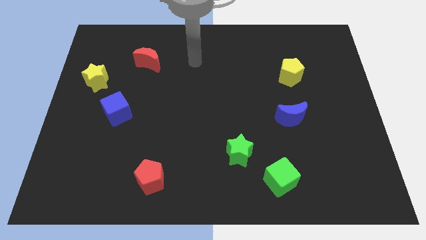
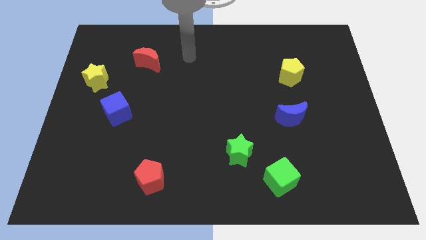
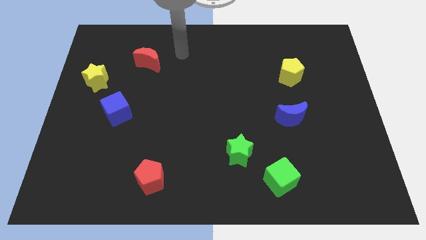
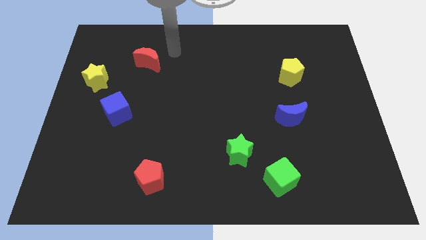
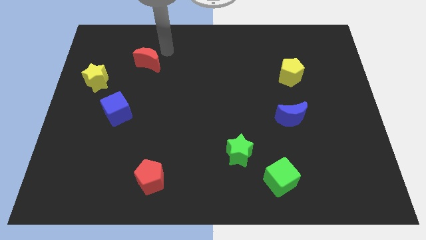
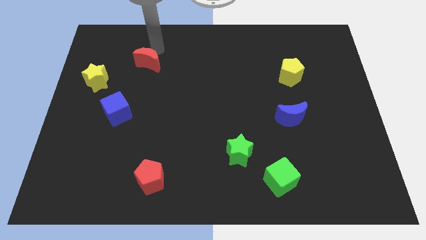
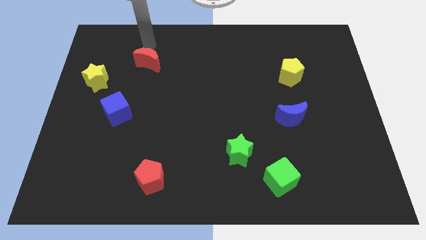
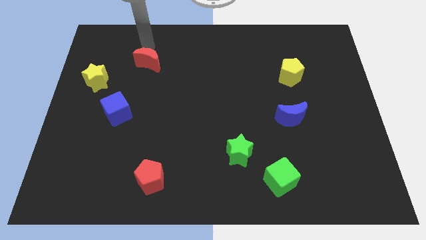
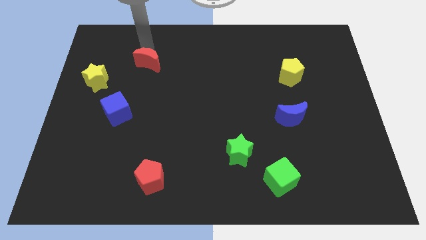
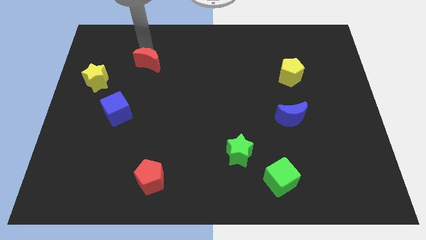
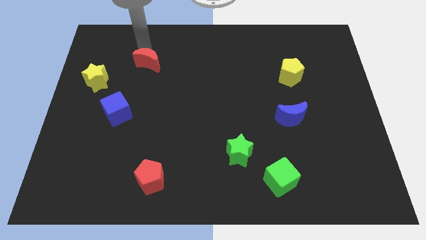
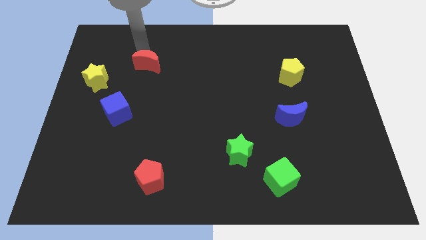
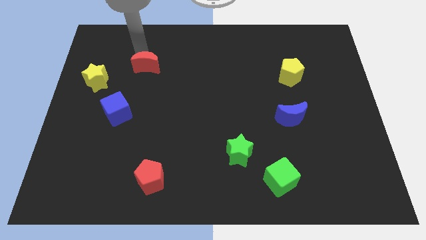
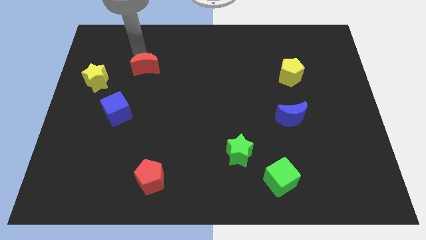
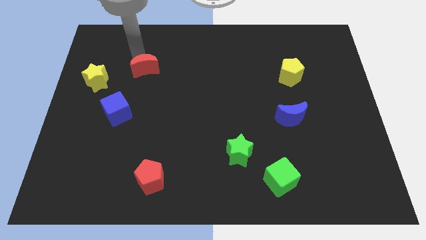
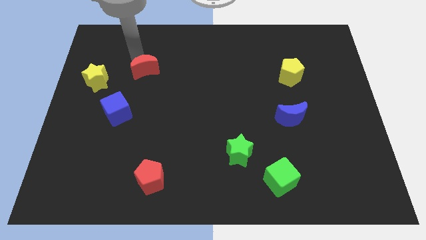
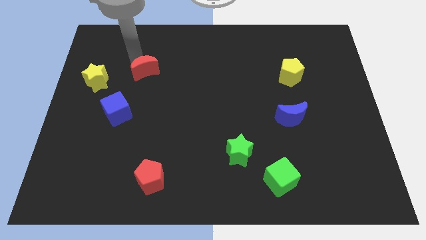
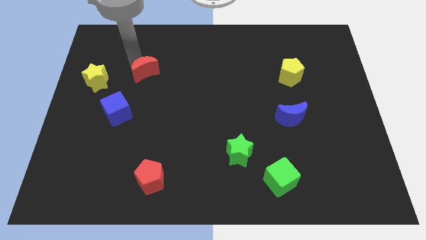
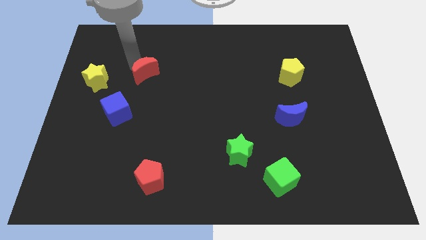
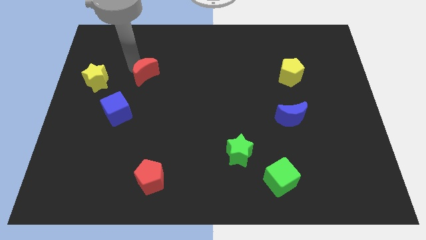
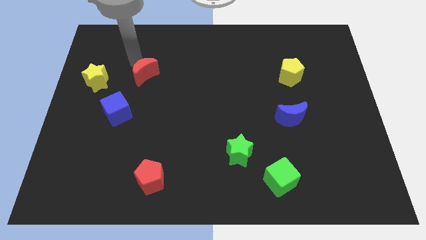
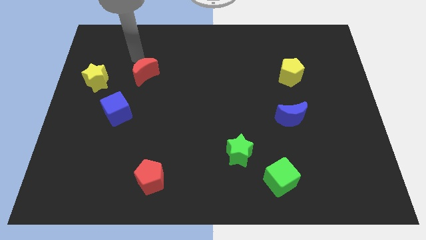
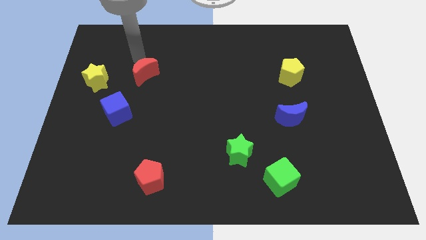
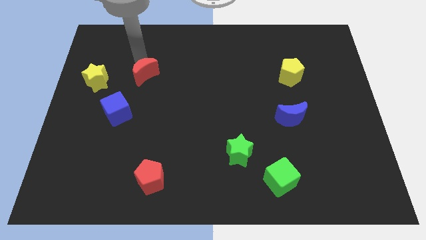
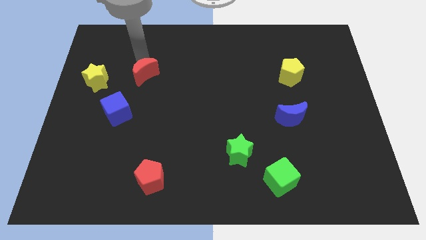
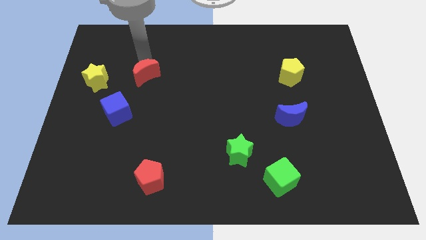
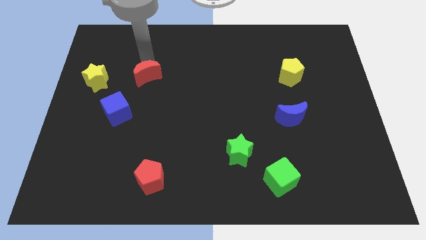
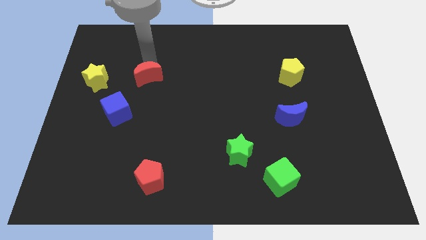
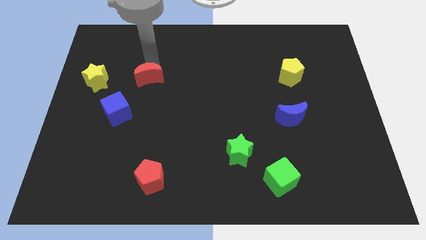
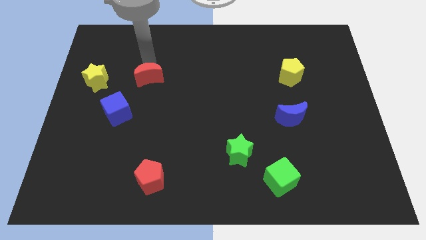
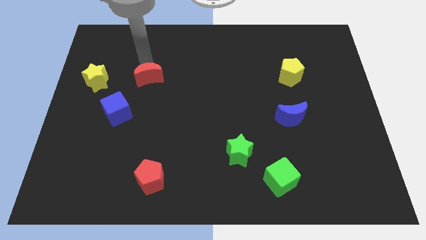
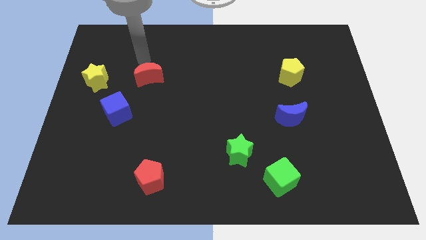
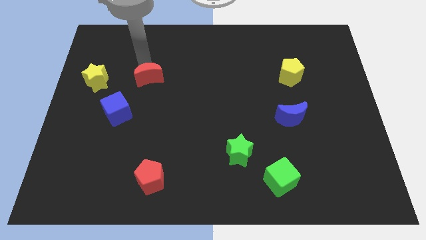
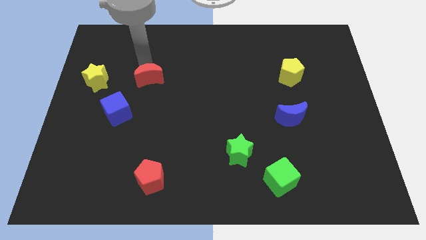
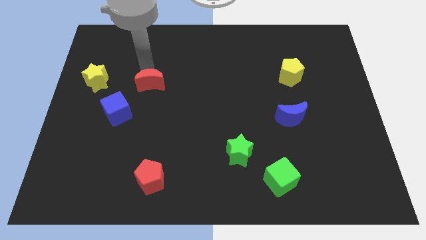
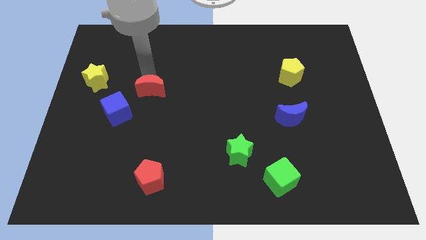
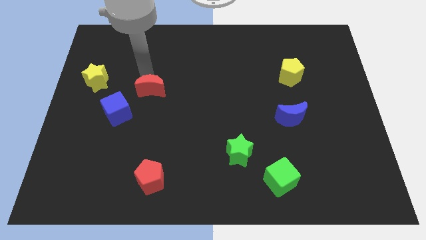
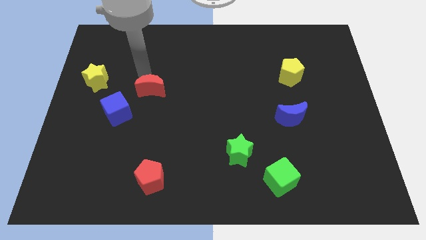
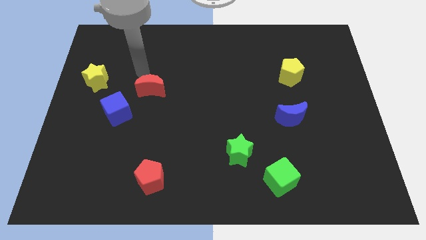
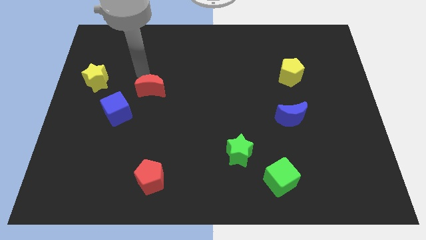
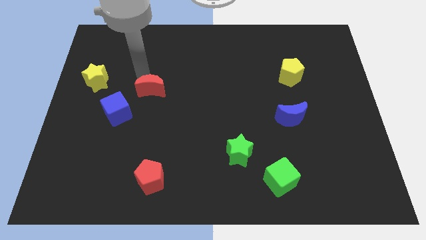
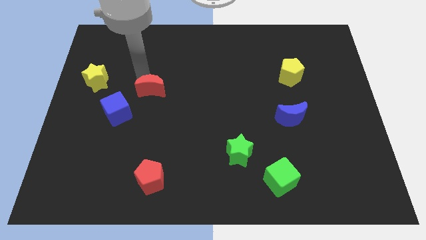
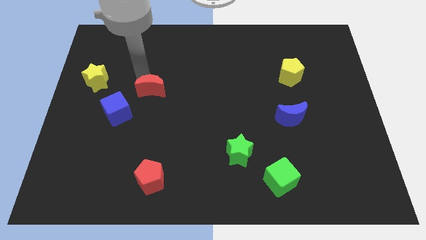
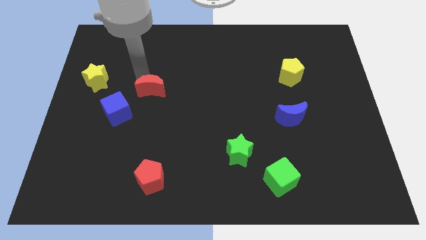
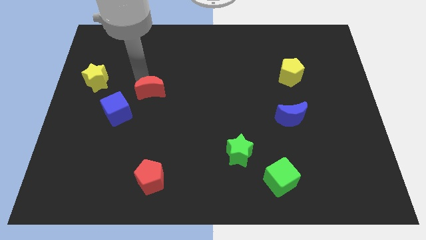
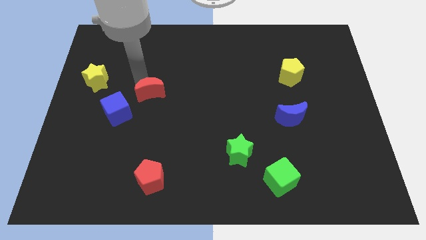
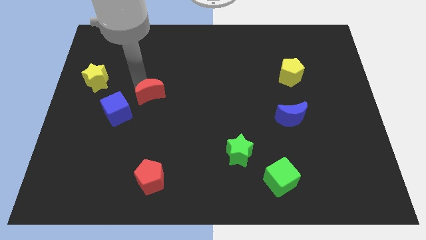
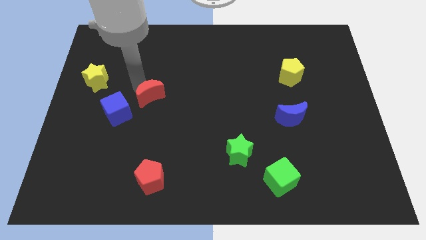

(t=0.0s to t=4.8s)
put the red moon to the right of the blue cube

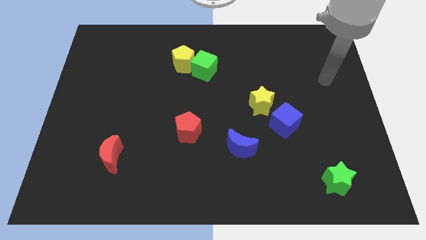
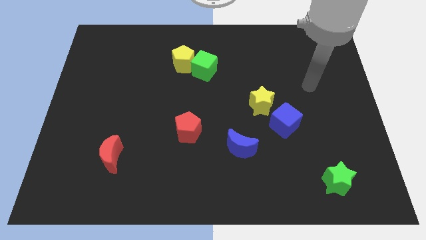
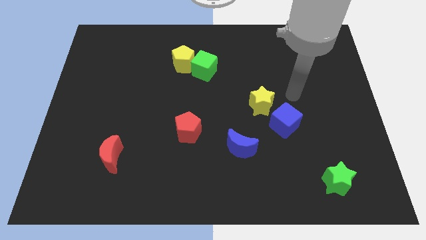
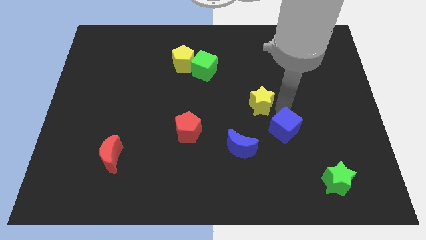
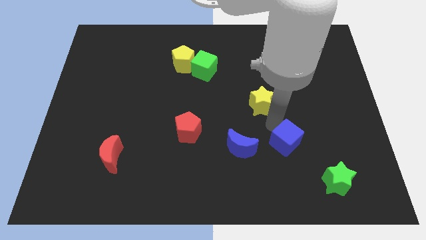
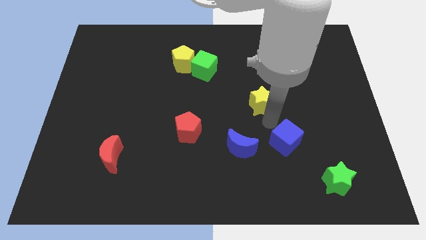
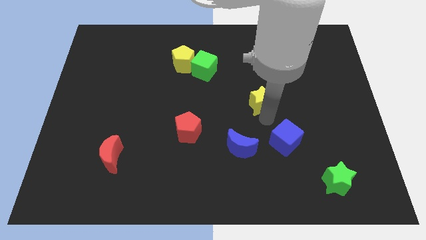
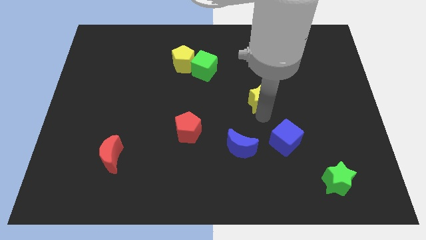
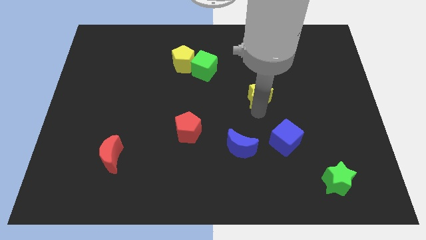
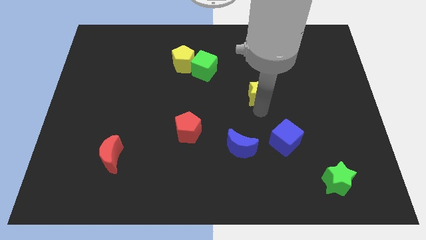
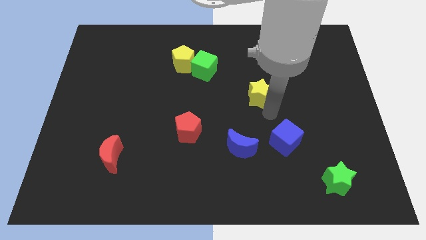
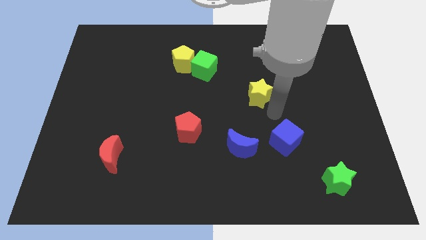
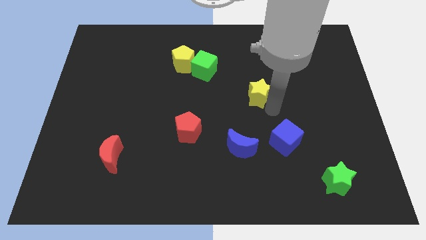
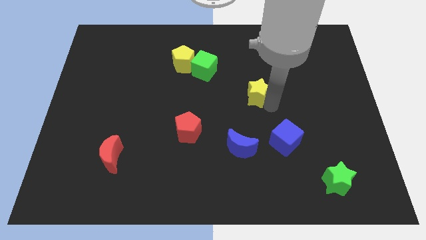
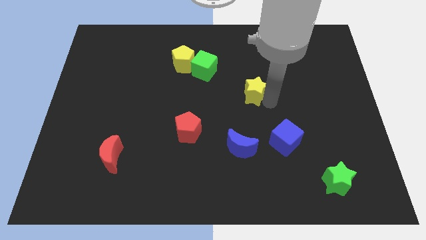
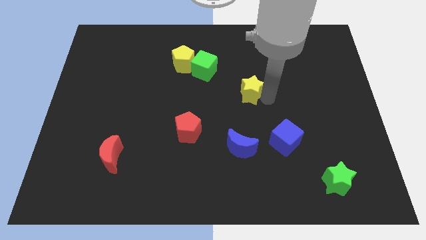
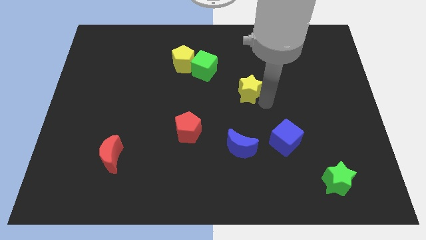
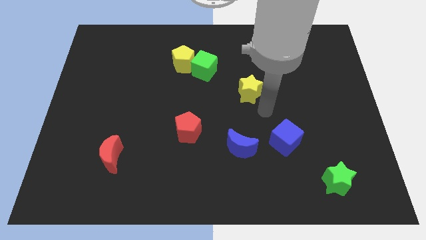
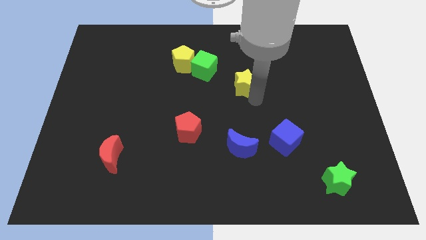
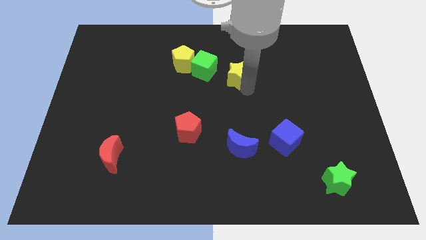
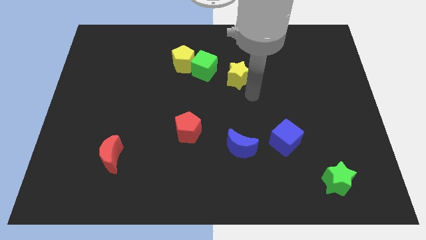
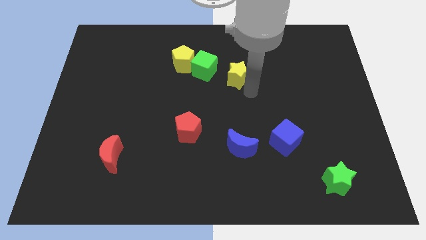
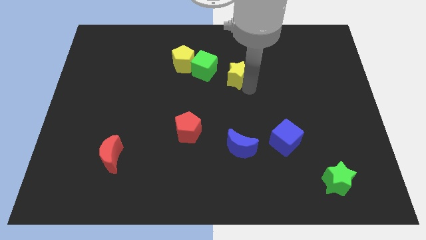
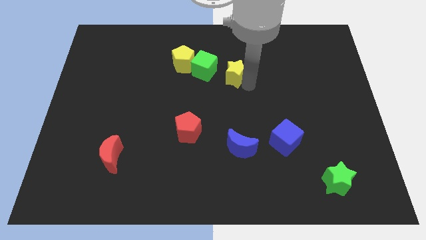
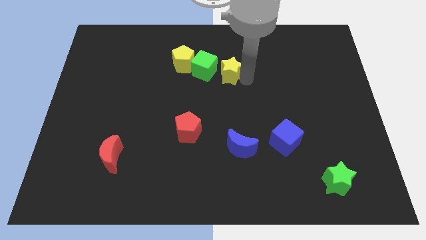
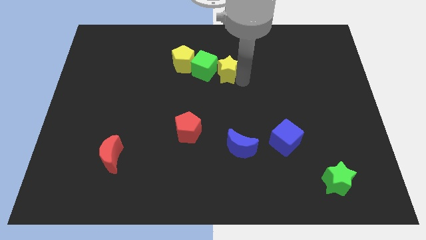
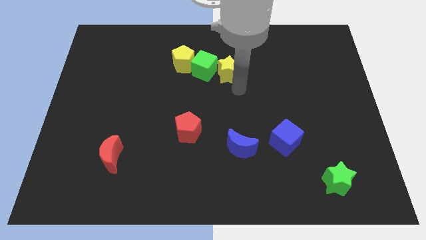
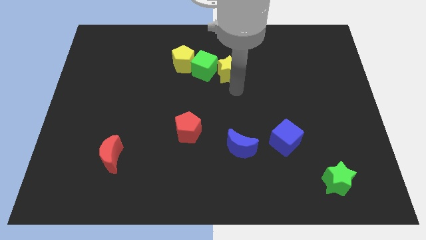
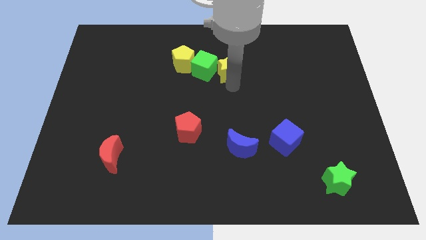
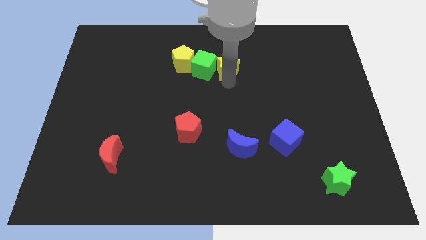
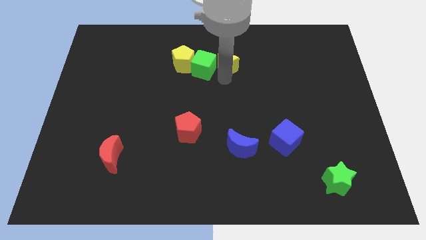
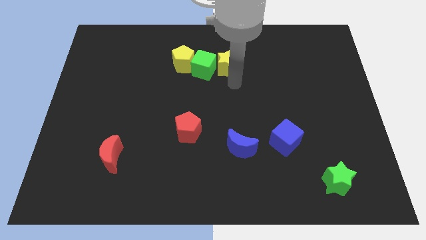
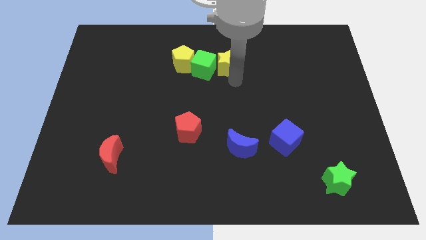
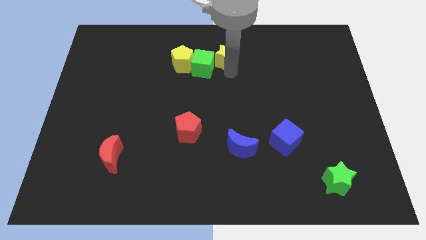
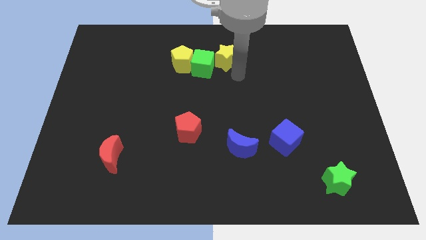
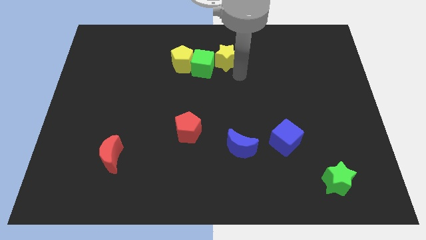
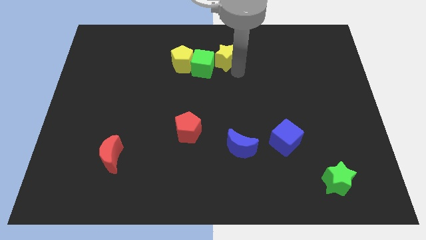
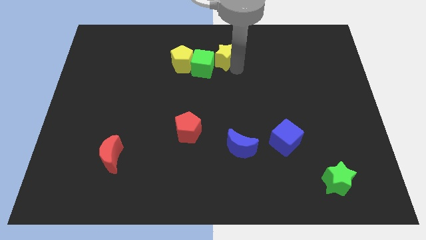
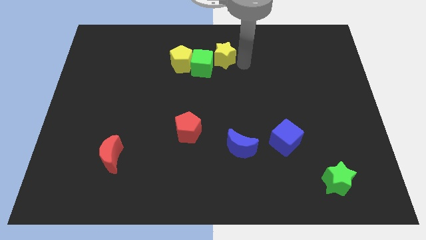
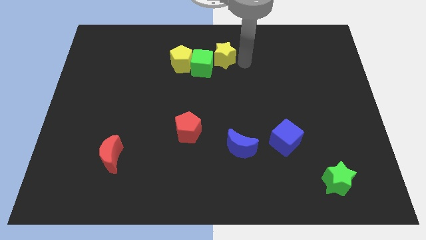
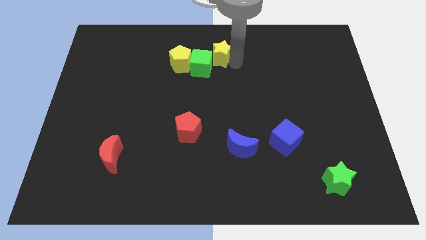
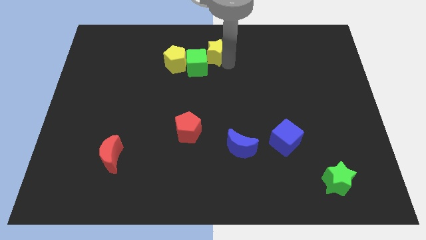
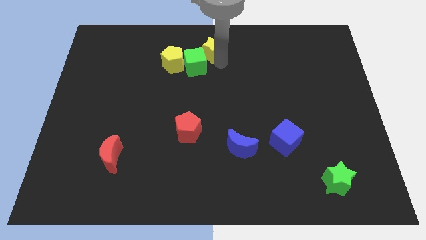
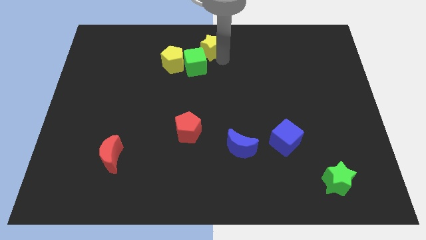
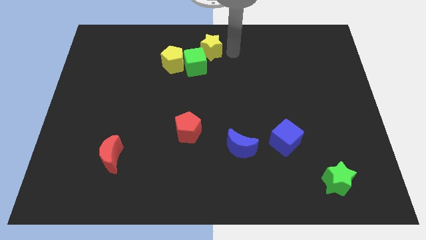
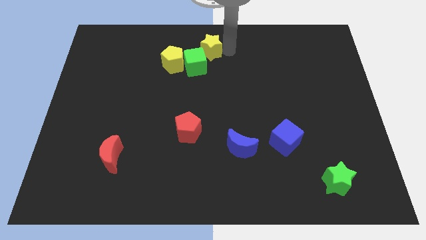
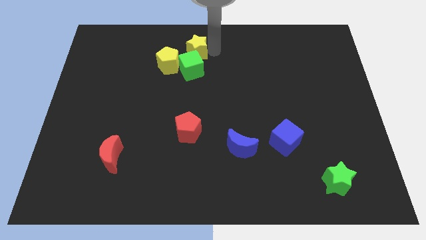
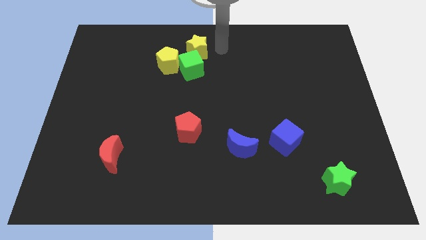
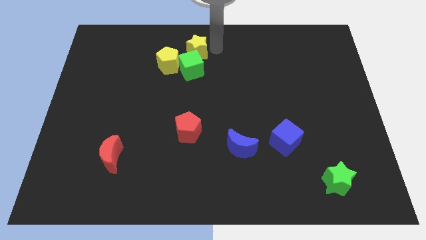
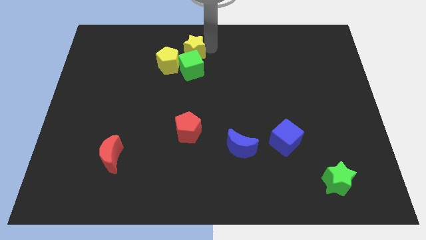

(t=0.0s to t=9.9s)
move the yellow star to the top left side of the green cube
